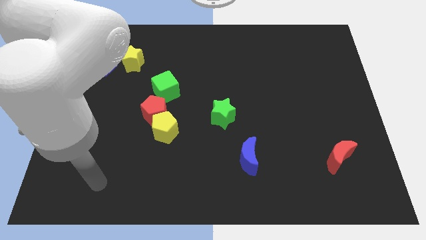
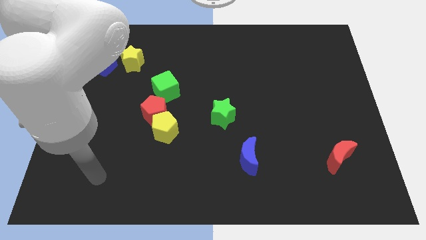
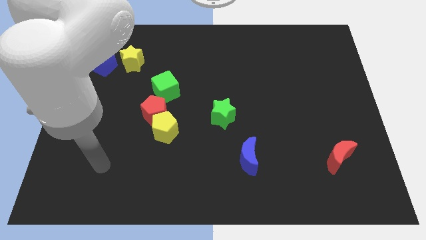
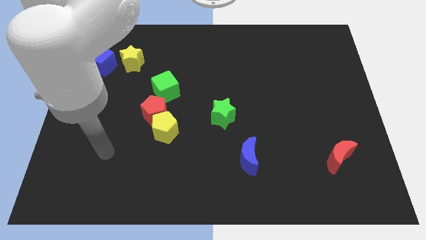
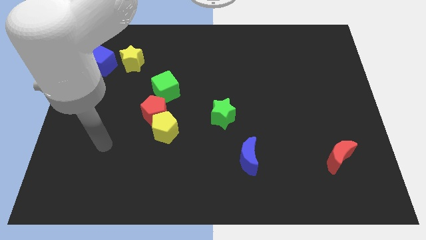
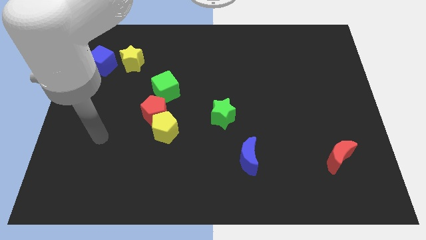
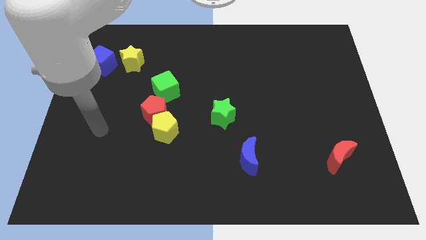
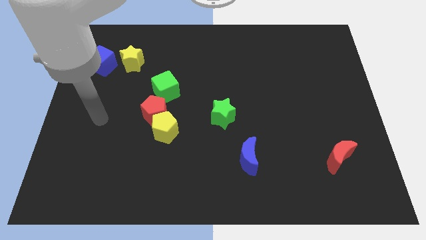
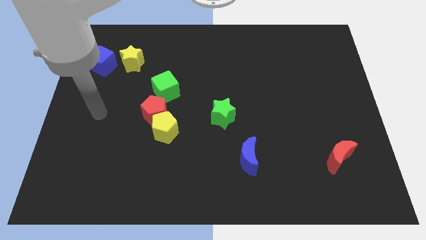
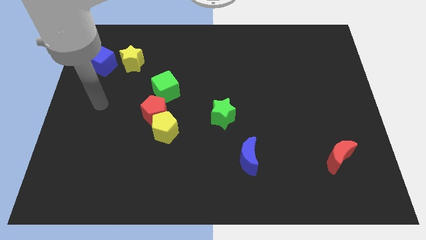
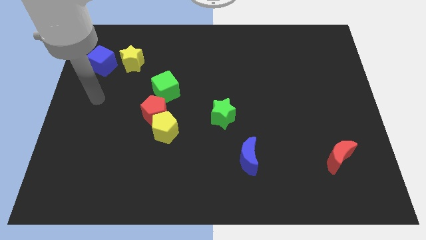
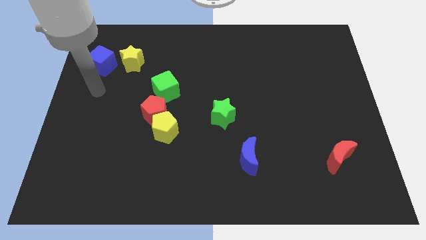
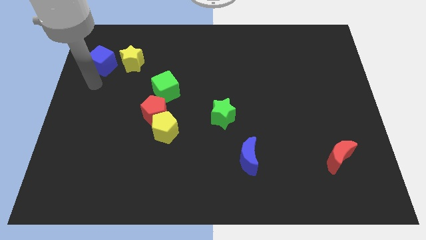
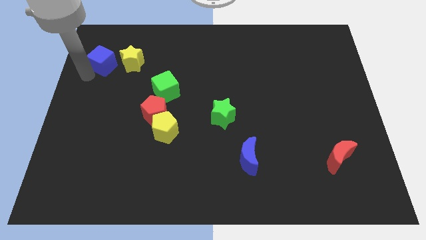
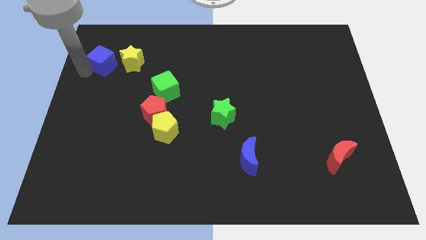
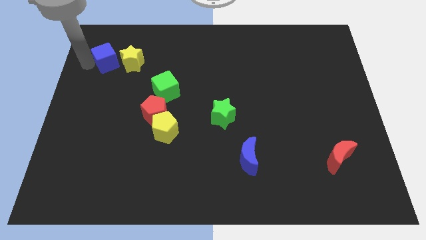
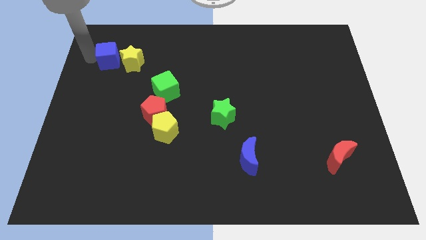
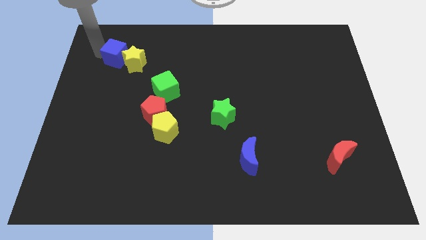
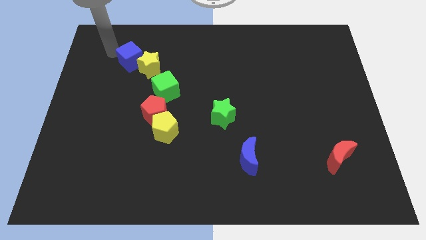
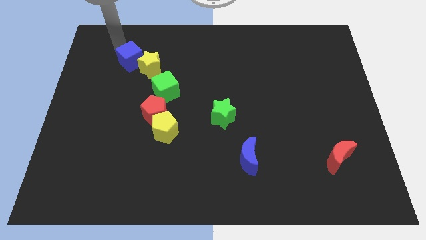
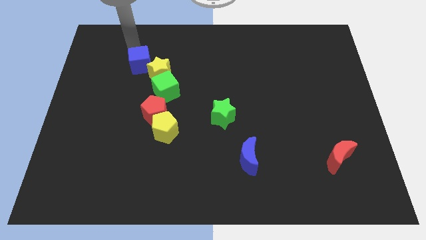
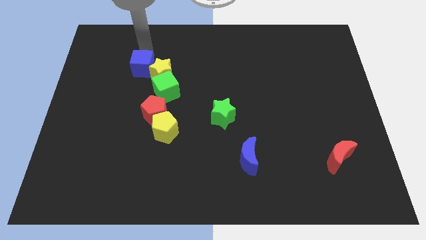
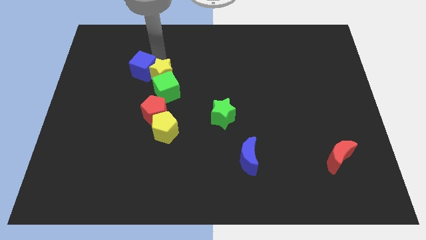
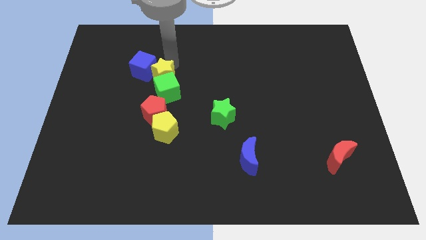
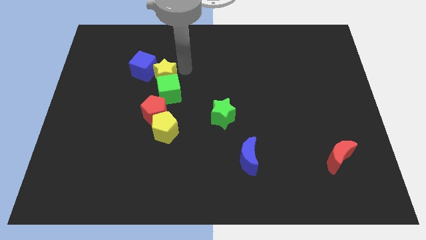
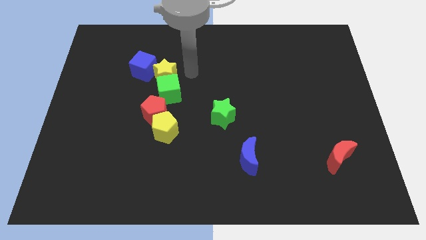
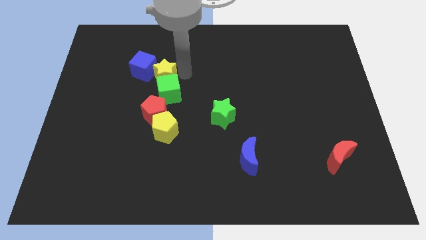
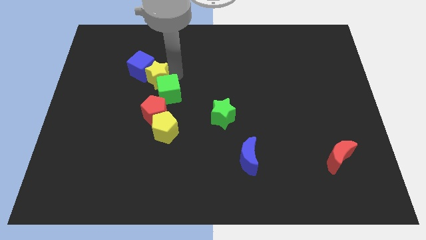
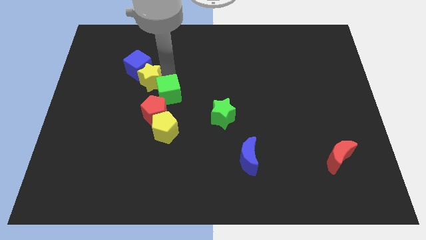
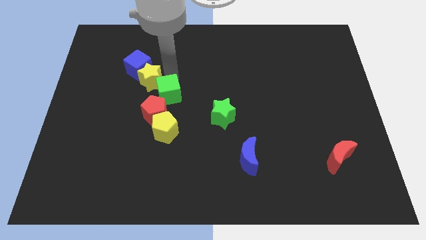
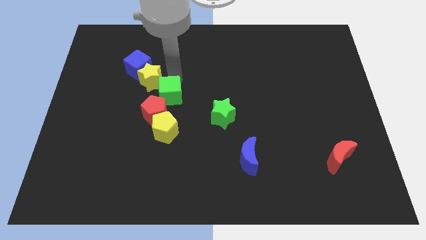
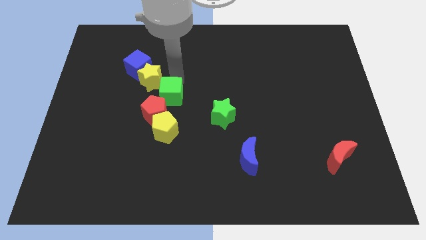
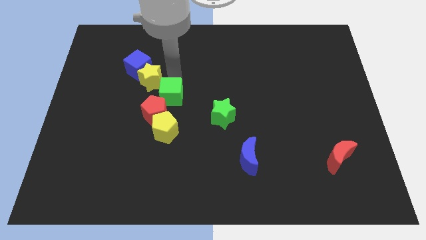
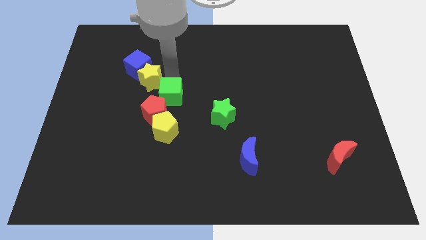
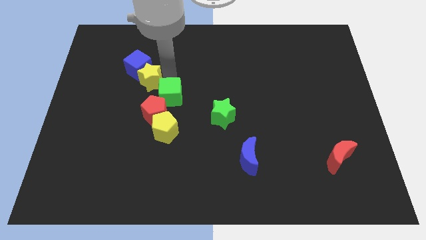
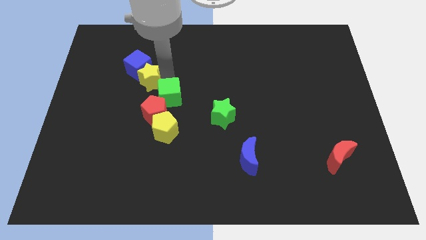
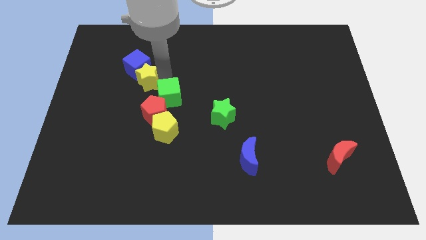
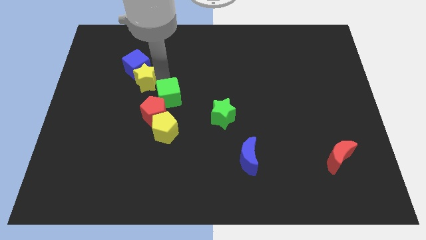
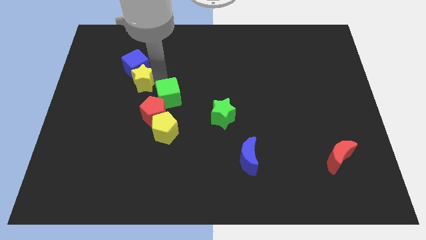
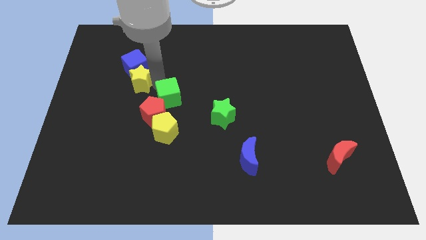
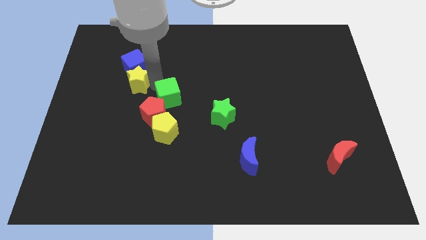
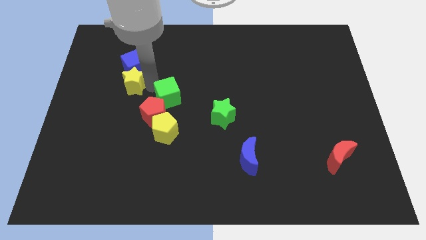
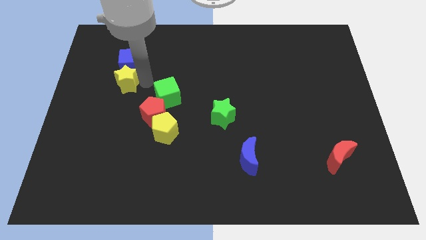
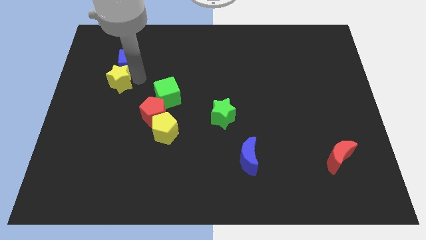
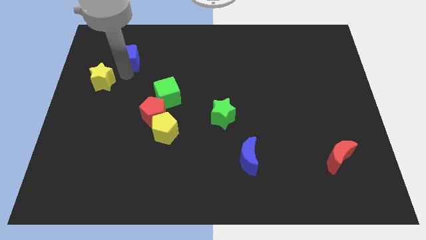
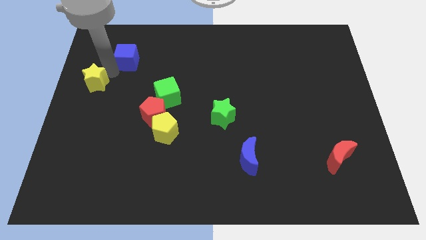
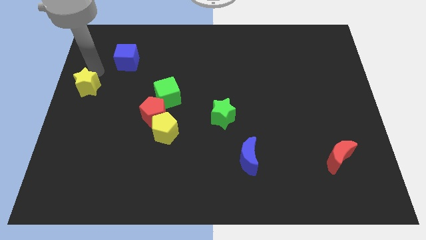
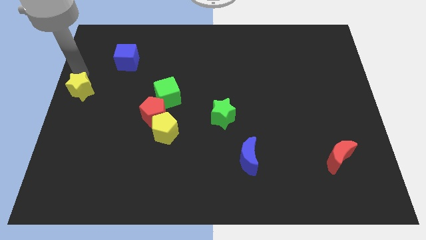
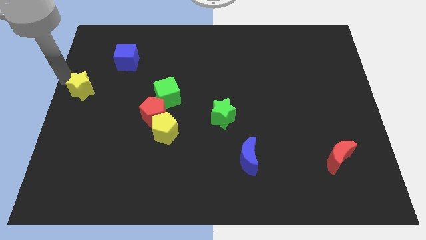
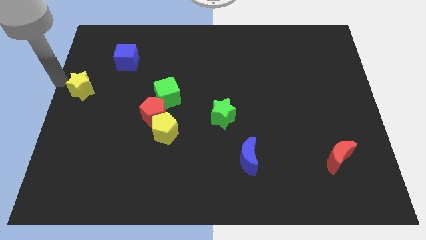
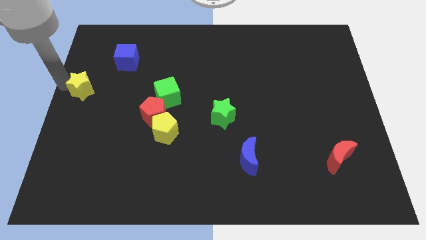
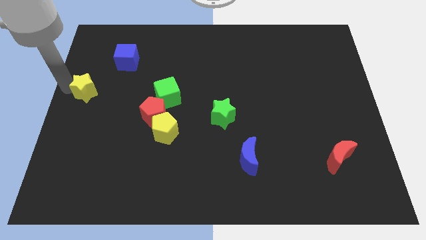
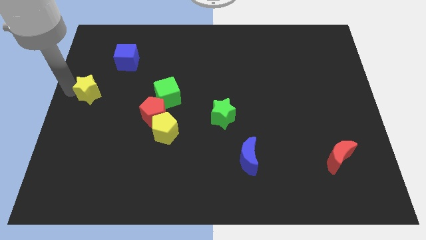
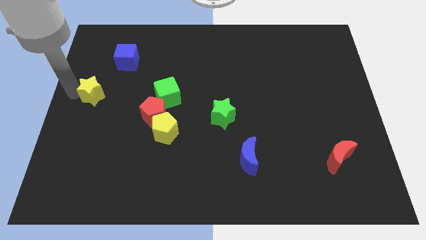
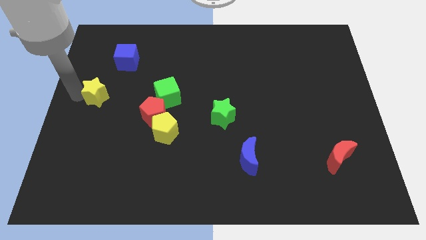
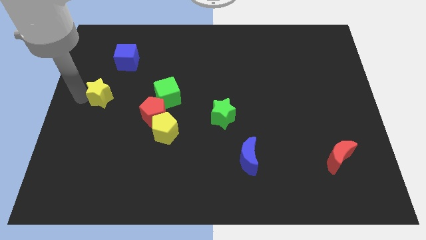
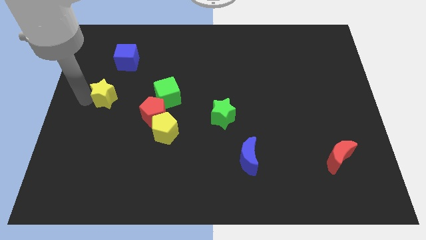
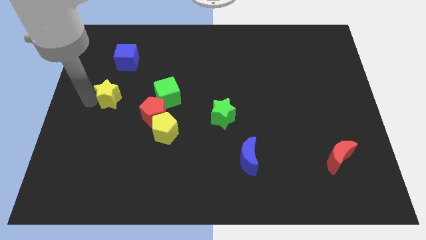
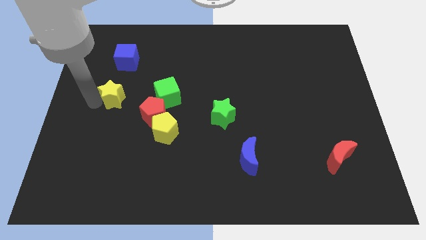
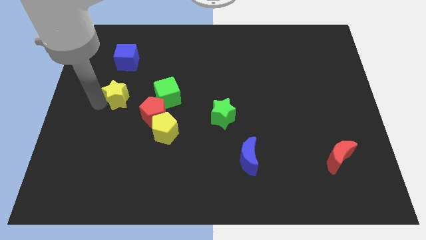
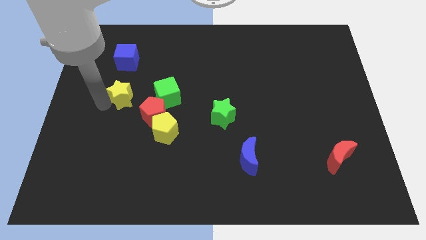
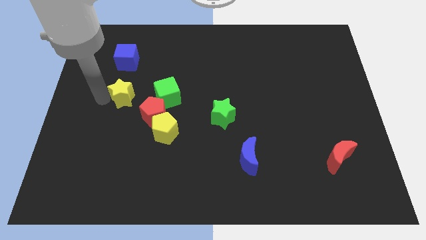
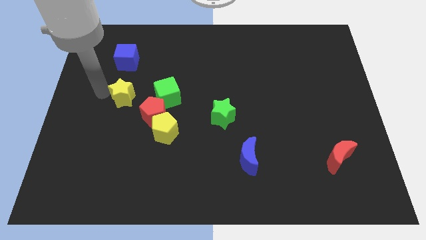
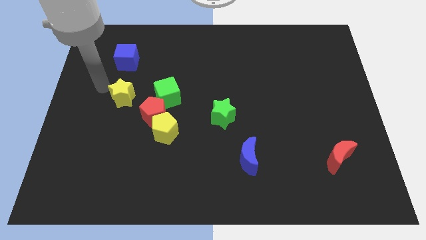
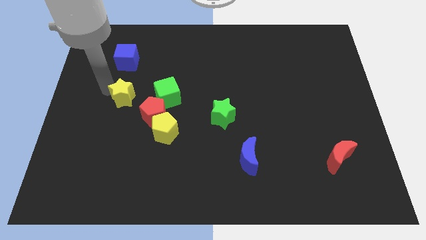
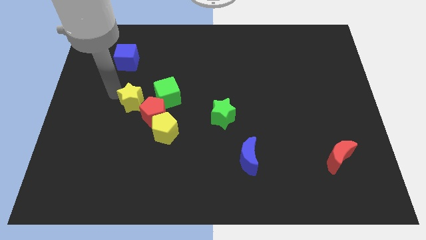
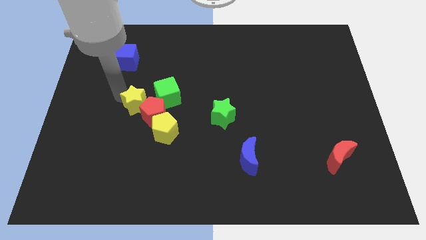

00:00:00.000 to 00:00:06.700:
move the yellow star towards the red pentagon
